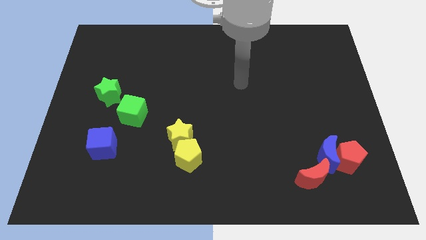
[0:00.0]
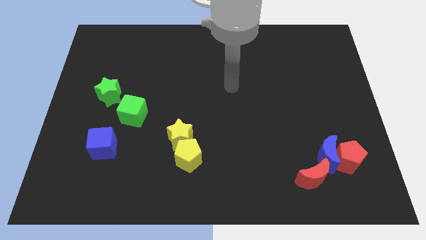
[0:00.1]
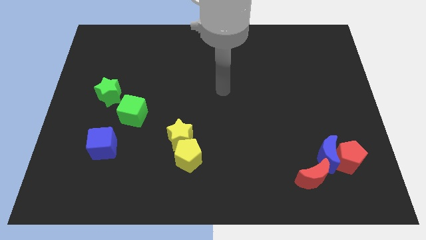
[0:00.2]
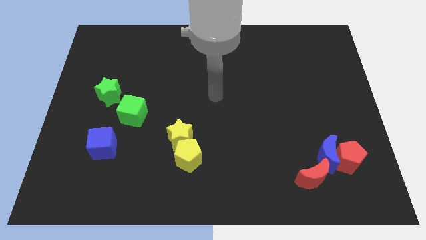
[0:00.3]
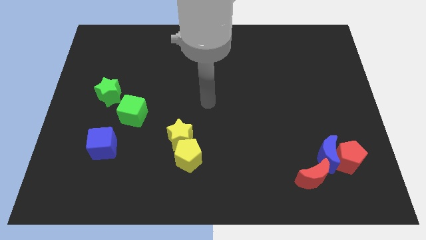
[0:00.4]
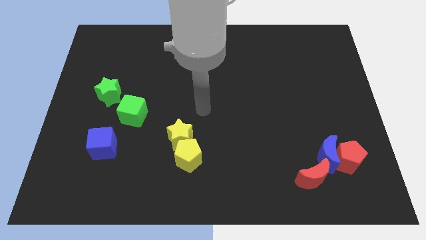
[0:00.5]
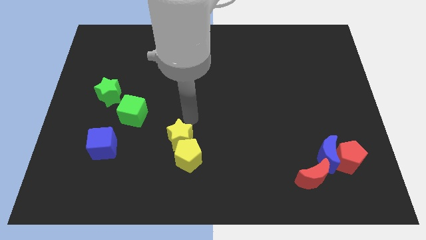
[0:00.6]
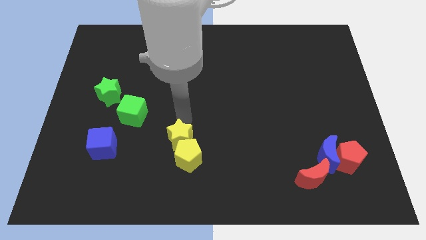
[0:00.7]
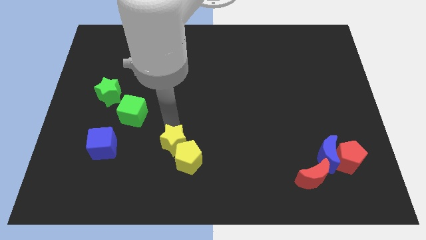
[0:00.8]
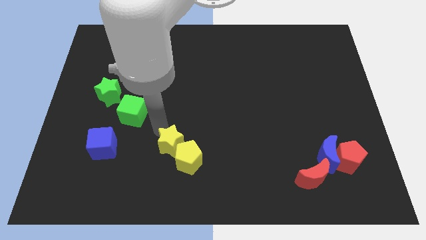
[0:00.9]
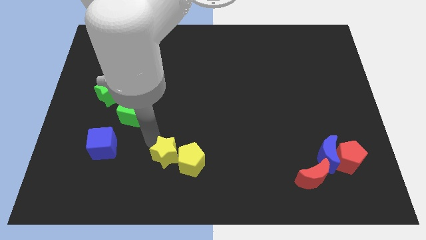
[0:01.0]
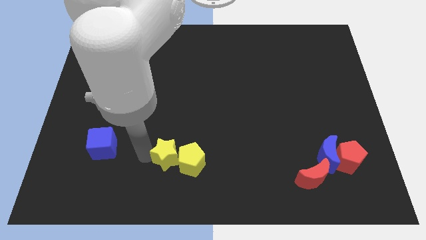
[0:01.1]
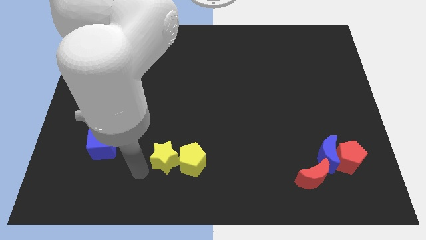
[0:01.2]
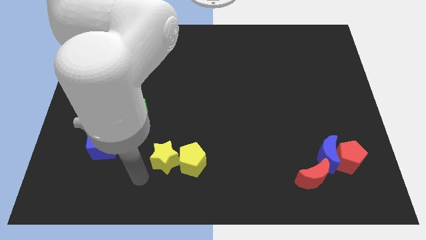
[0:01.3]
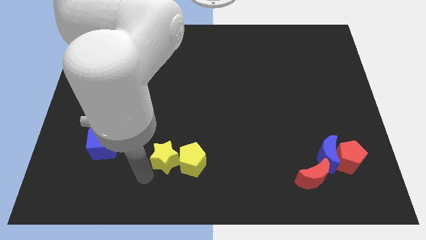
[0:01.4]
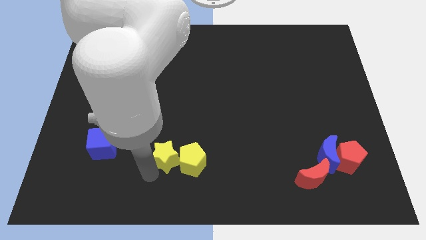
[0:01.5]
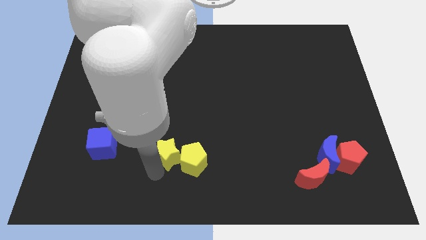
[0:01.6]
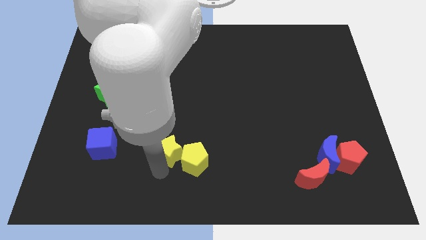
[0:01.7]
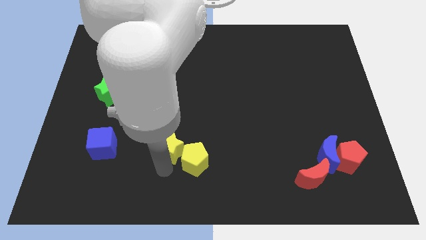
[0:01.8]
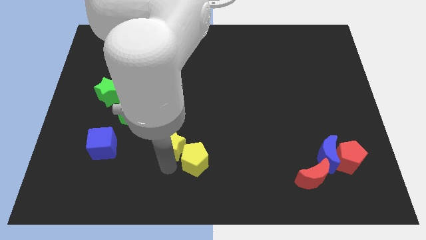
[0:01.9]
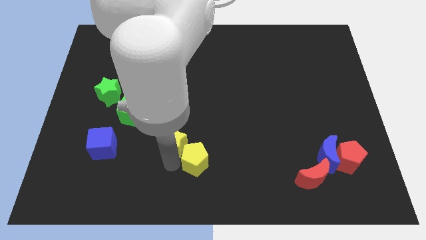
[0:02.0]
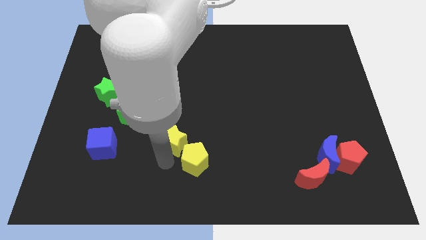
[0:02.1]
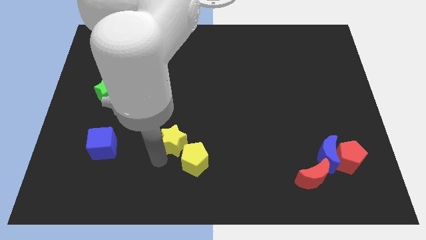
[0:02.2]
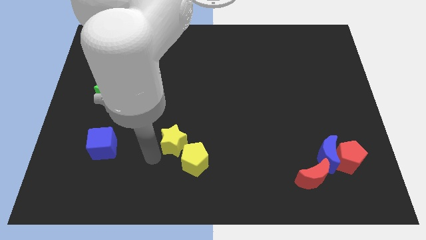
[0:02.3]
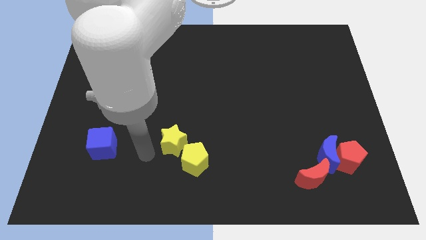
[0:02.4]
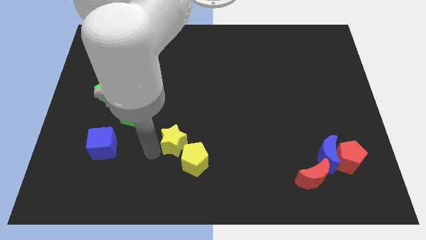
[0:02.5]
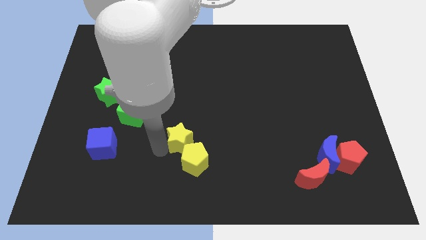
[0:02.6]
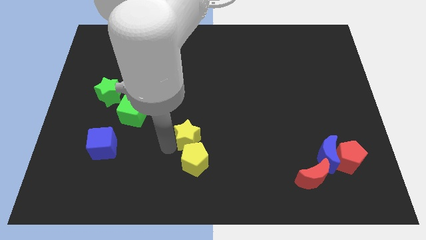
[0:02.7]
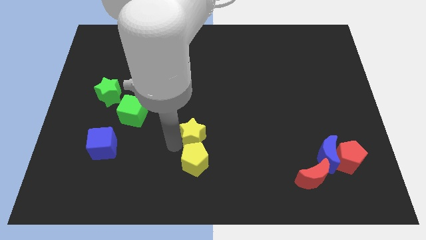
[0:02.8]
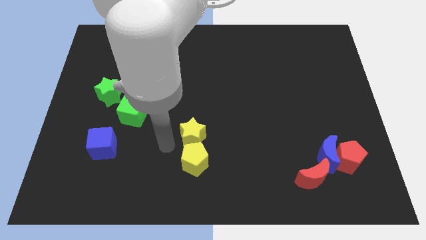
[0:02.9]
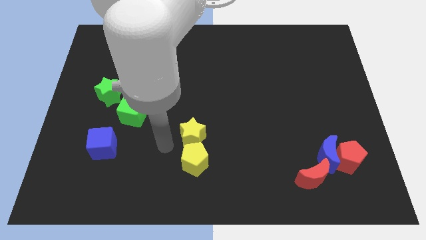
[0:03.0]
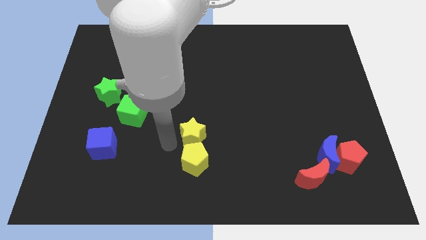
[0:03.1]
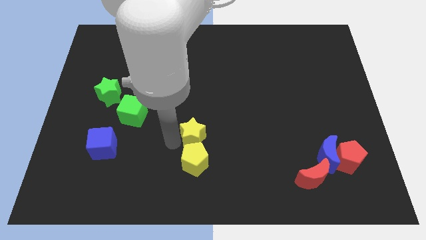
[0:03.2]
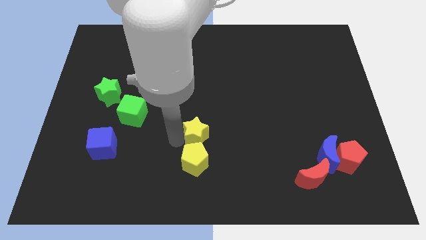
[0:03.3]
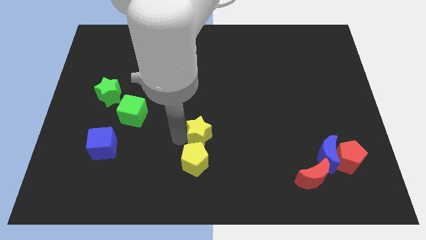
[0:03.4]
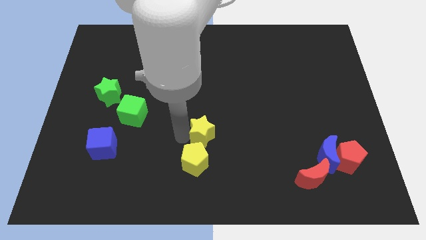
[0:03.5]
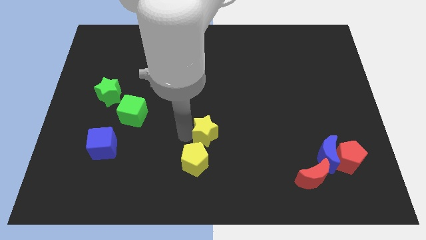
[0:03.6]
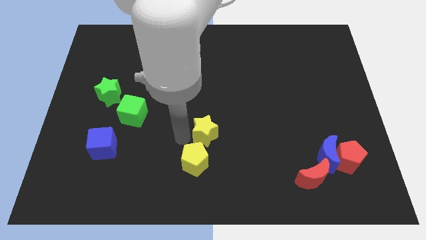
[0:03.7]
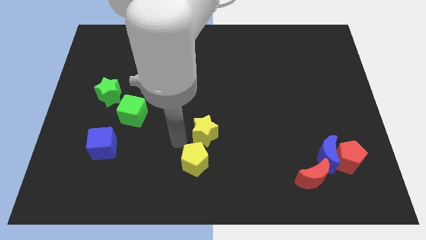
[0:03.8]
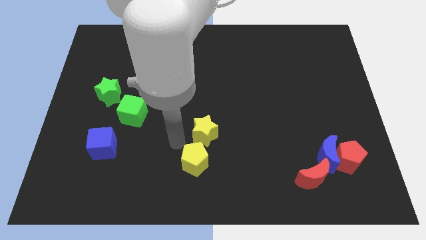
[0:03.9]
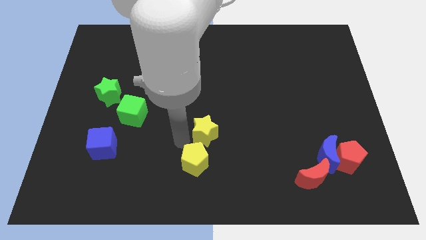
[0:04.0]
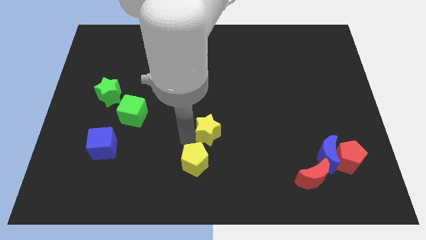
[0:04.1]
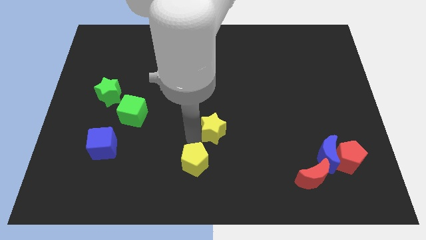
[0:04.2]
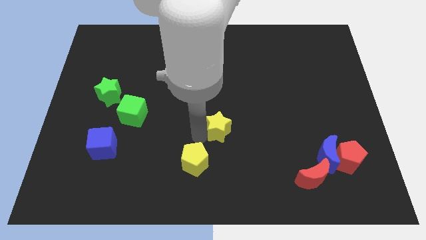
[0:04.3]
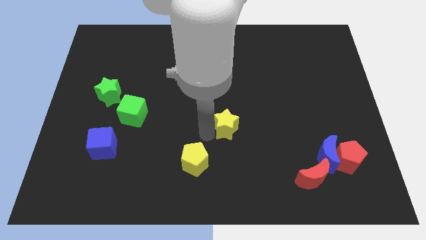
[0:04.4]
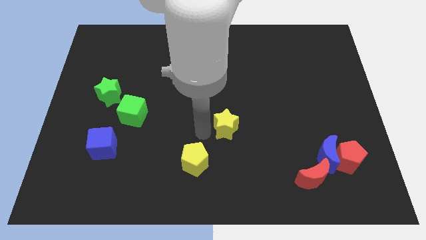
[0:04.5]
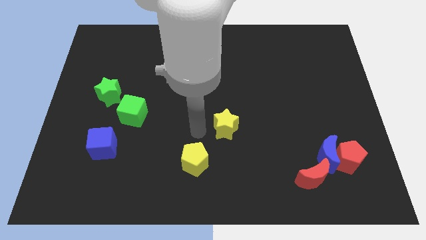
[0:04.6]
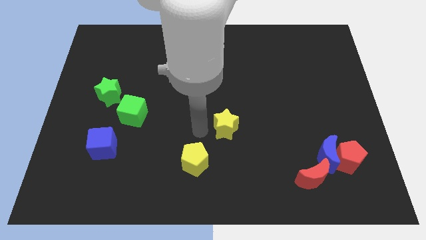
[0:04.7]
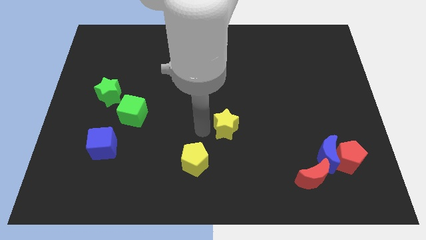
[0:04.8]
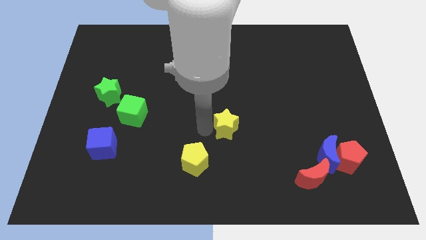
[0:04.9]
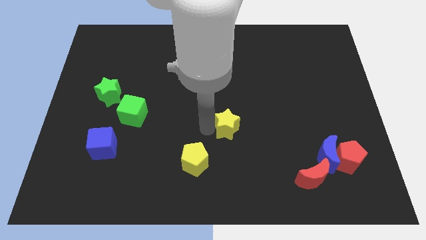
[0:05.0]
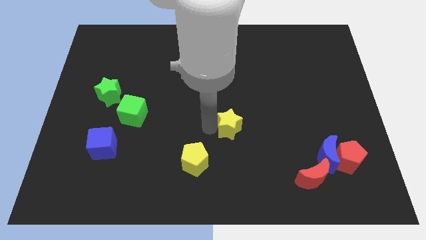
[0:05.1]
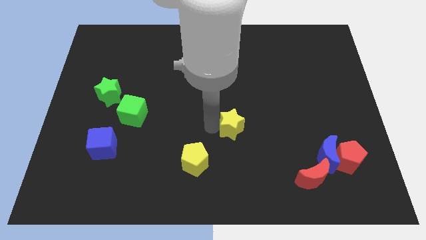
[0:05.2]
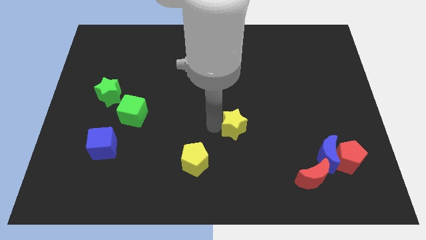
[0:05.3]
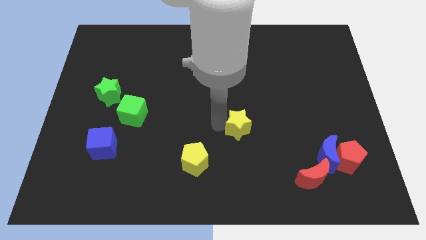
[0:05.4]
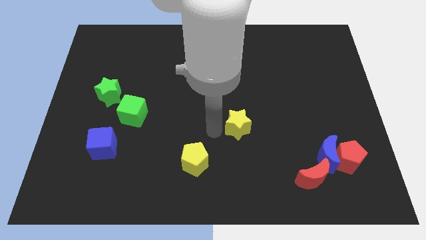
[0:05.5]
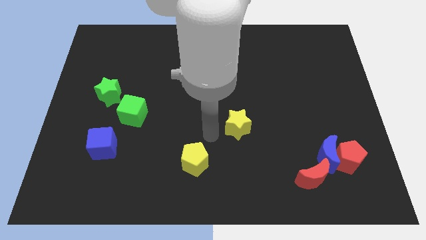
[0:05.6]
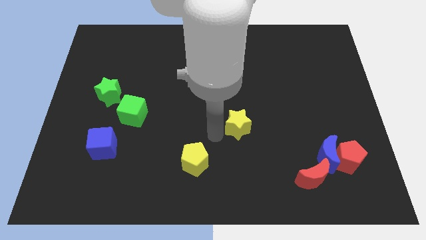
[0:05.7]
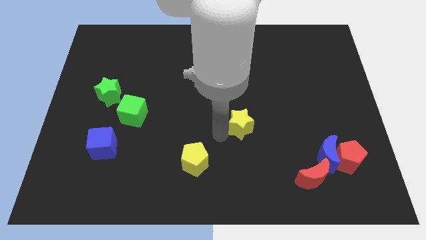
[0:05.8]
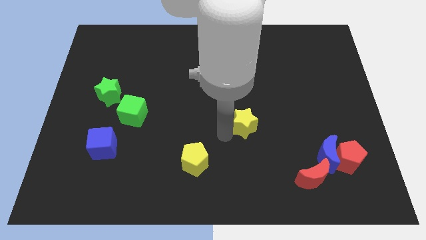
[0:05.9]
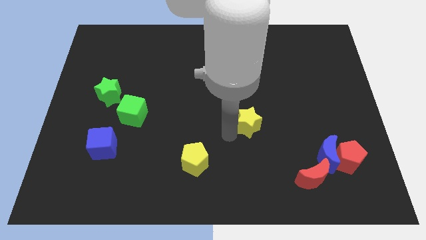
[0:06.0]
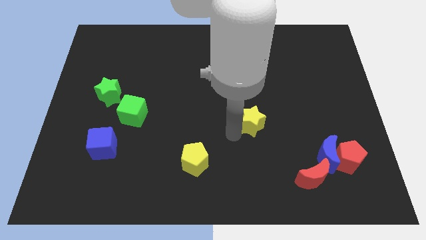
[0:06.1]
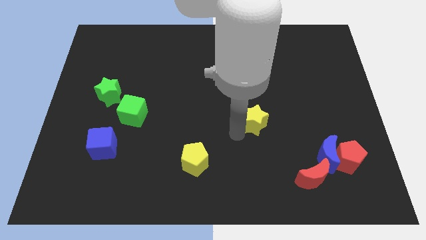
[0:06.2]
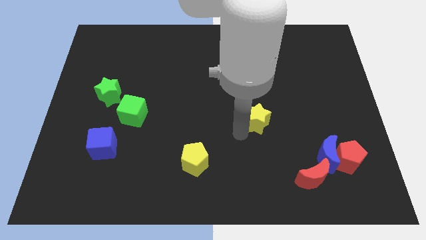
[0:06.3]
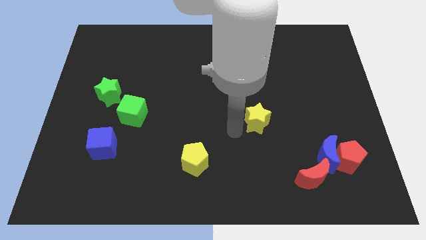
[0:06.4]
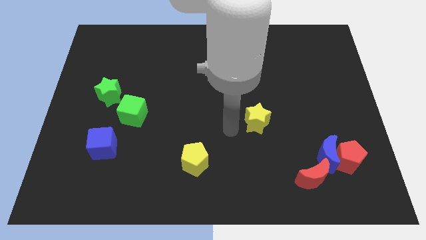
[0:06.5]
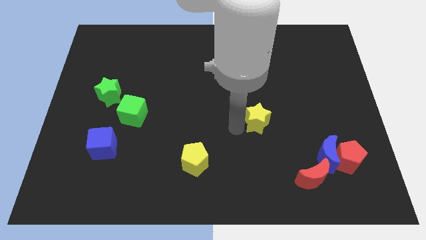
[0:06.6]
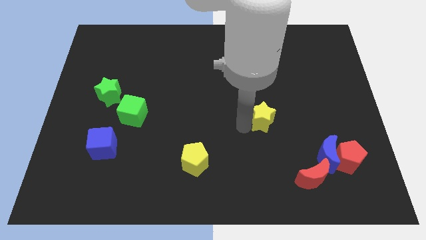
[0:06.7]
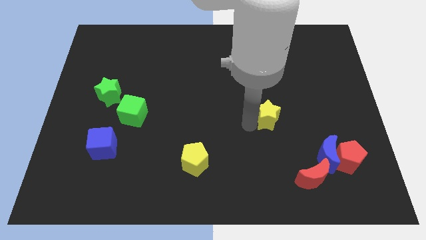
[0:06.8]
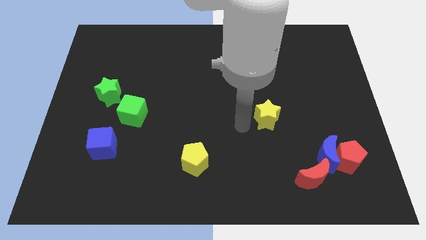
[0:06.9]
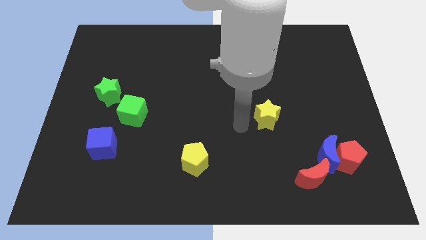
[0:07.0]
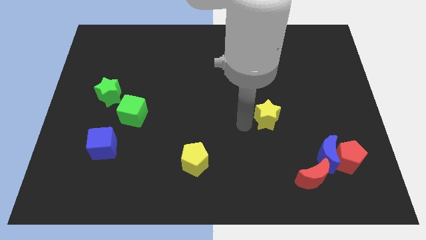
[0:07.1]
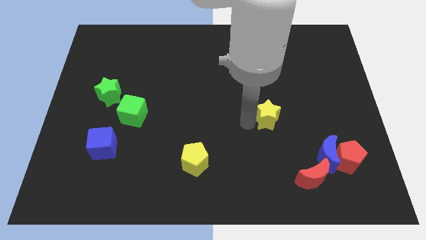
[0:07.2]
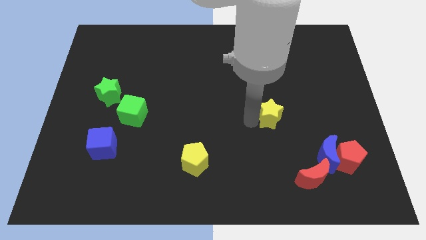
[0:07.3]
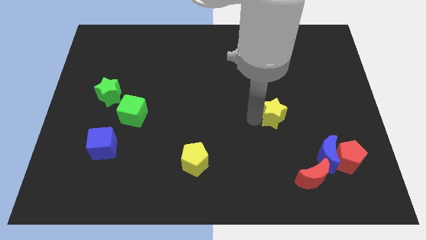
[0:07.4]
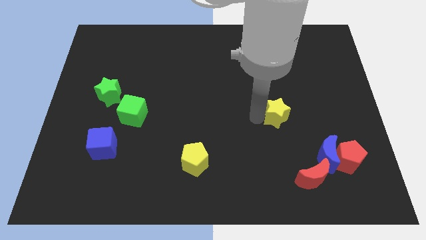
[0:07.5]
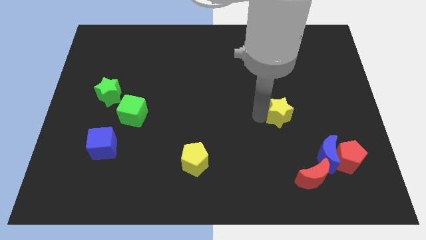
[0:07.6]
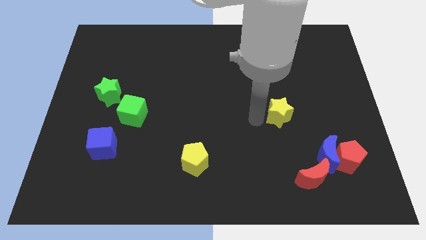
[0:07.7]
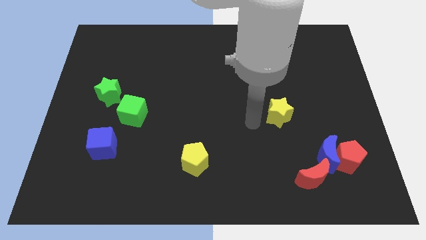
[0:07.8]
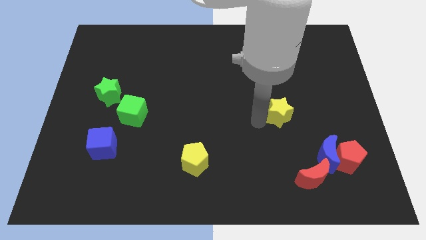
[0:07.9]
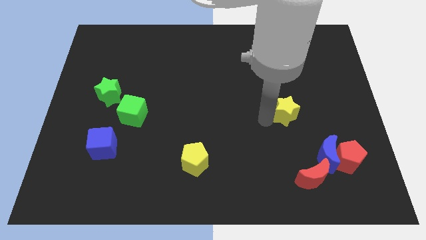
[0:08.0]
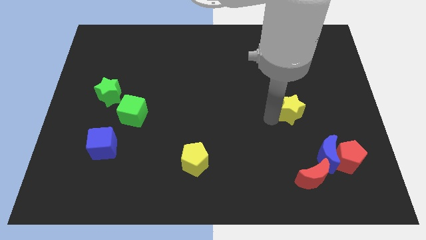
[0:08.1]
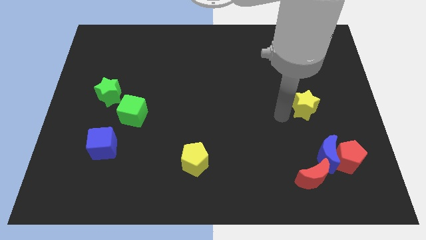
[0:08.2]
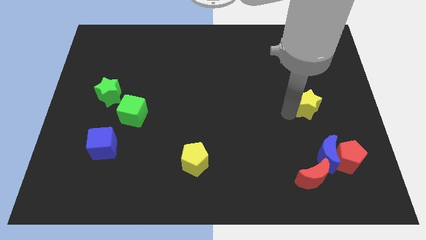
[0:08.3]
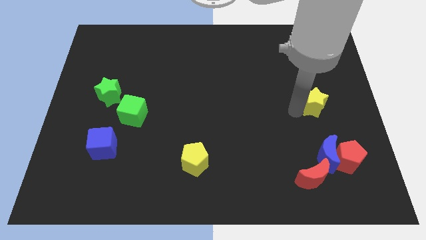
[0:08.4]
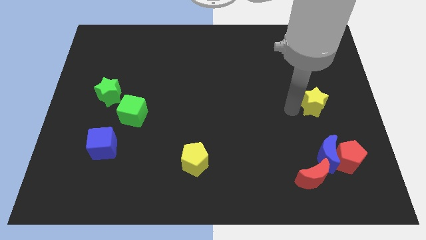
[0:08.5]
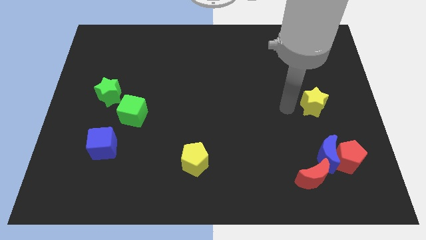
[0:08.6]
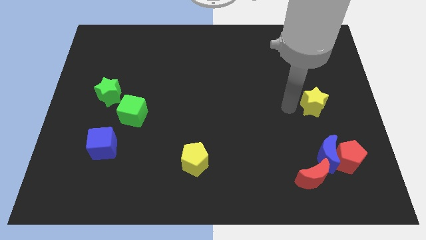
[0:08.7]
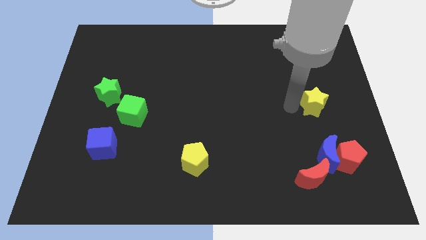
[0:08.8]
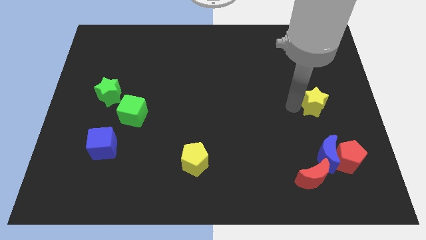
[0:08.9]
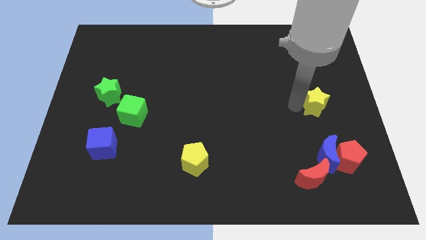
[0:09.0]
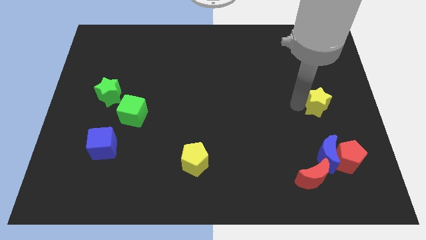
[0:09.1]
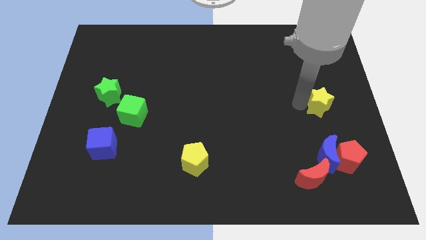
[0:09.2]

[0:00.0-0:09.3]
move the yellow star to the center right
